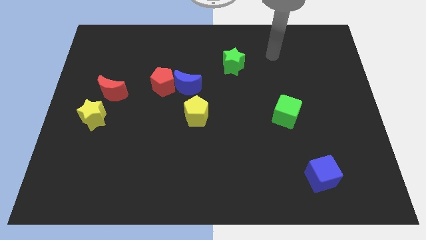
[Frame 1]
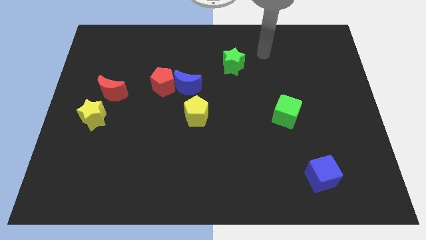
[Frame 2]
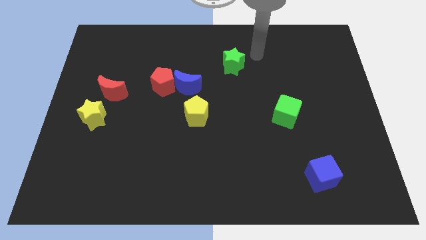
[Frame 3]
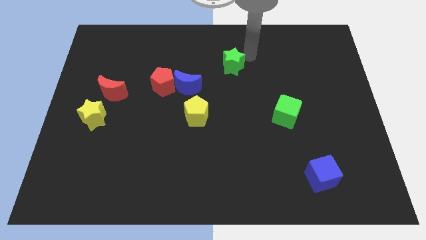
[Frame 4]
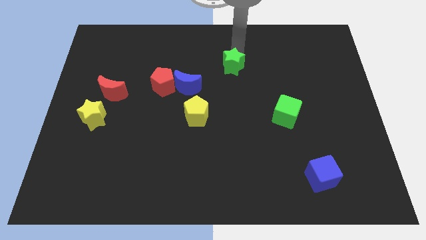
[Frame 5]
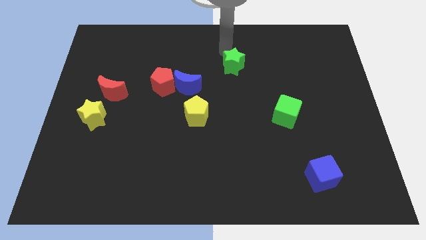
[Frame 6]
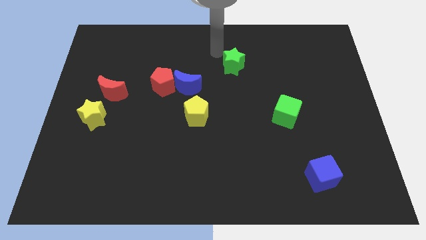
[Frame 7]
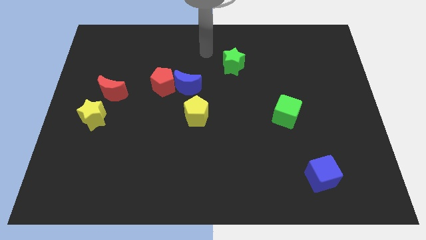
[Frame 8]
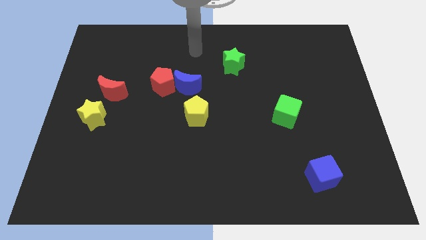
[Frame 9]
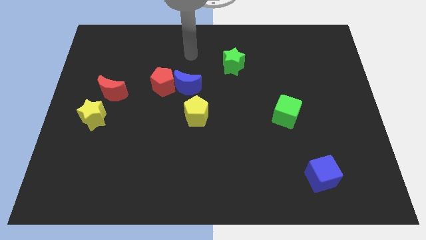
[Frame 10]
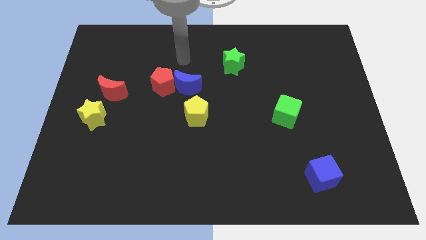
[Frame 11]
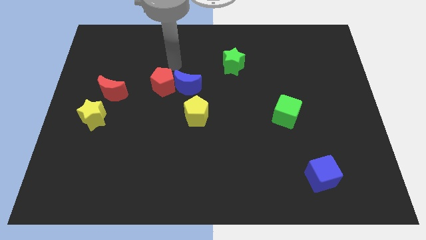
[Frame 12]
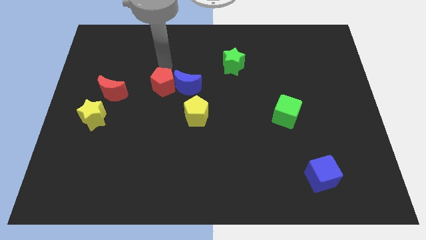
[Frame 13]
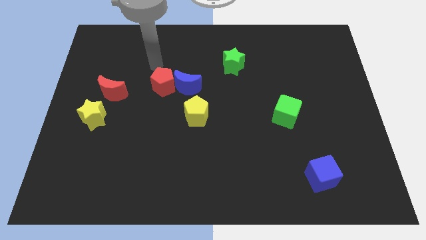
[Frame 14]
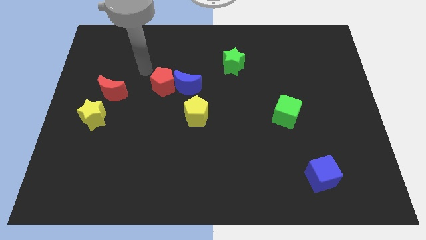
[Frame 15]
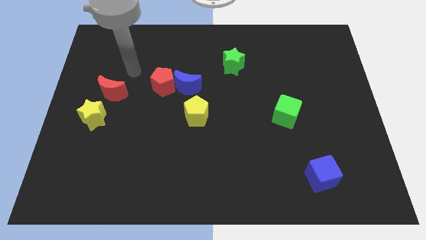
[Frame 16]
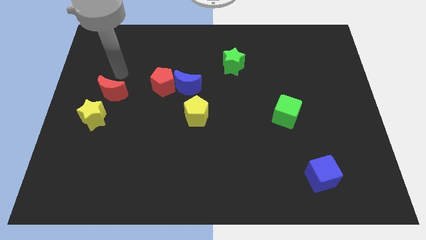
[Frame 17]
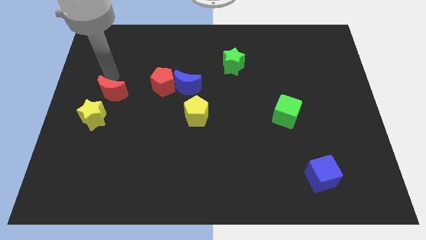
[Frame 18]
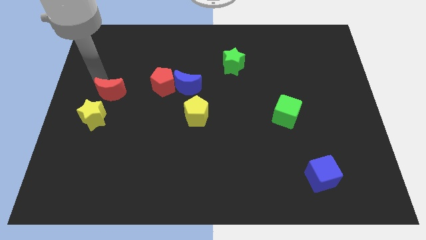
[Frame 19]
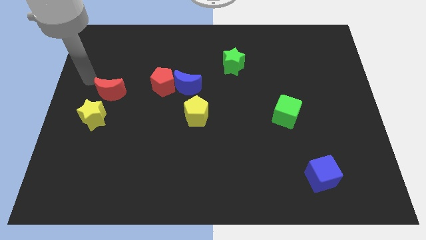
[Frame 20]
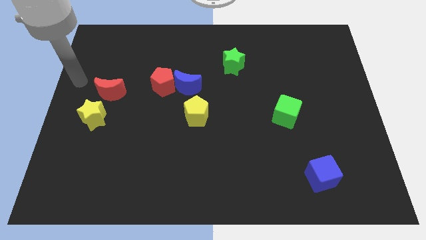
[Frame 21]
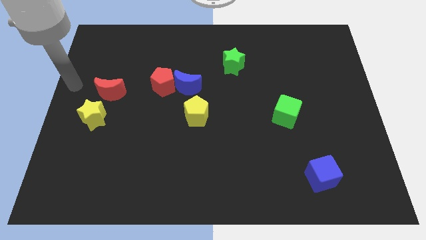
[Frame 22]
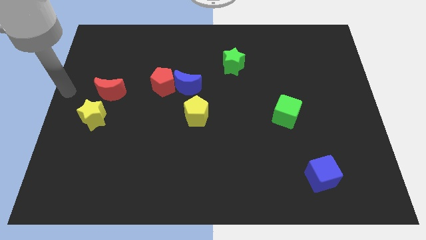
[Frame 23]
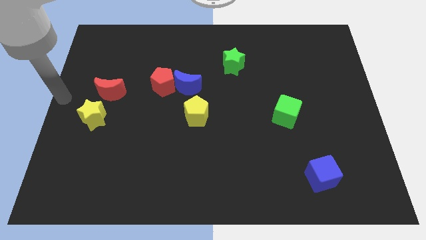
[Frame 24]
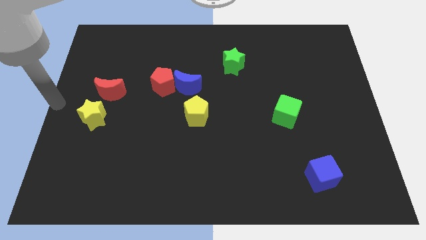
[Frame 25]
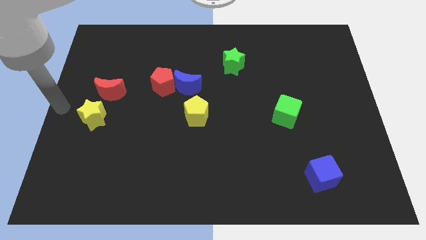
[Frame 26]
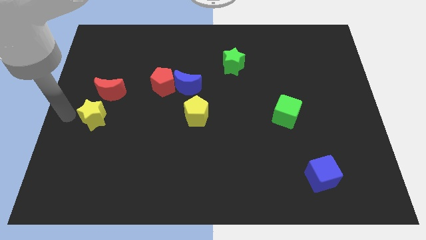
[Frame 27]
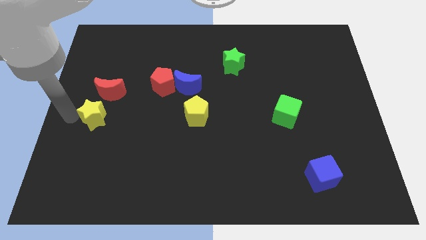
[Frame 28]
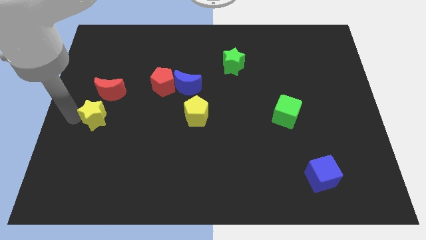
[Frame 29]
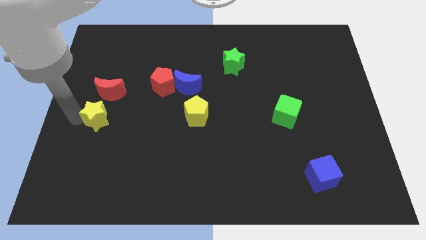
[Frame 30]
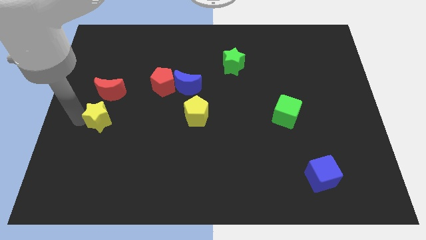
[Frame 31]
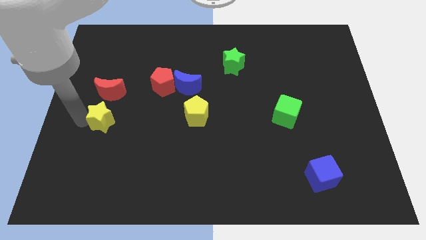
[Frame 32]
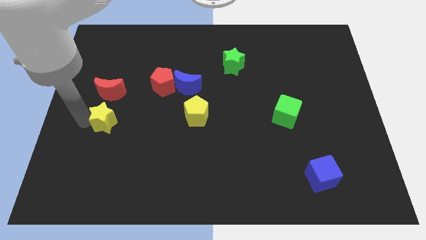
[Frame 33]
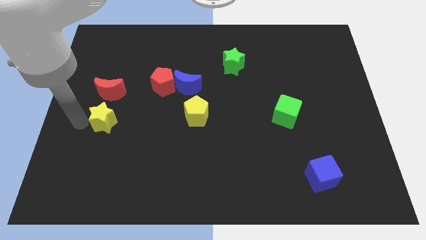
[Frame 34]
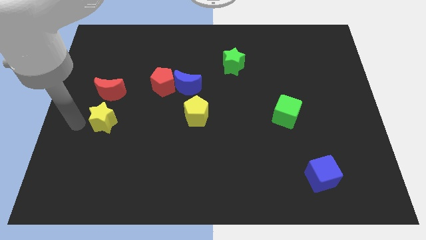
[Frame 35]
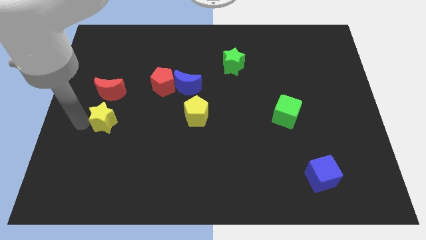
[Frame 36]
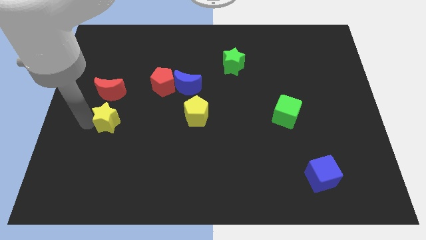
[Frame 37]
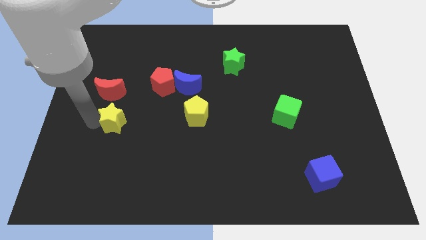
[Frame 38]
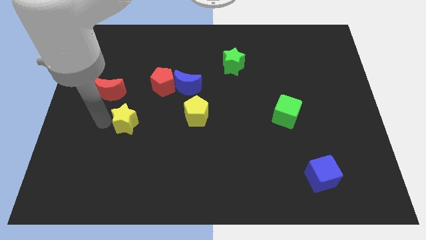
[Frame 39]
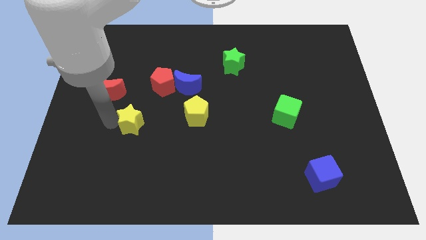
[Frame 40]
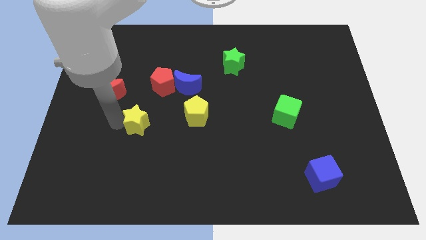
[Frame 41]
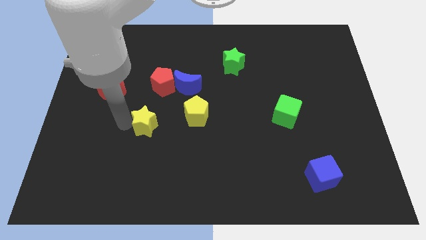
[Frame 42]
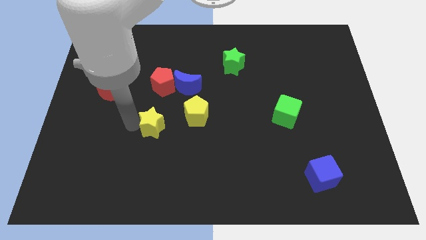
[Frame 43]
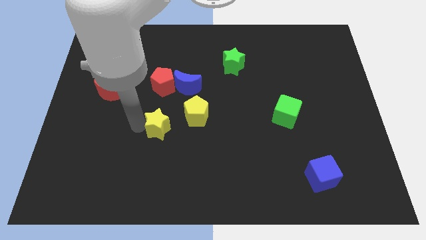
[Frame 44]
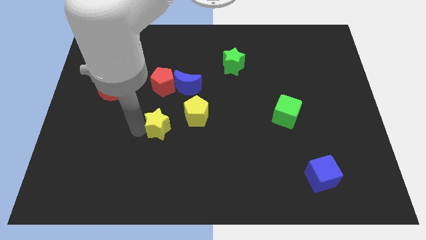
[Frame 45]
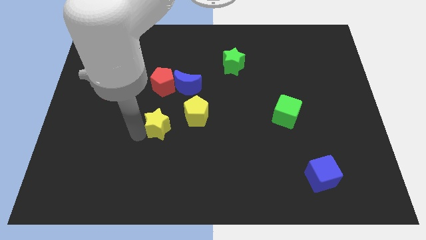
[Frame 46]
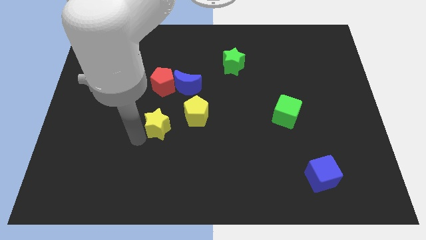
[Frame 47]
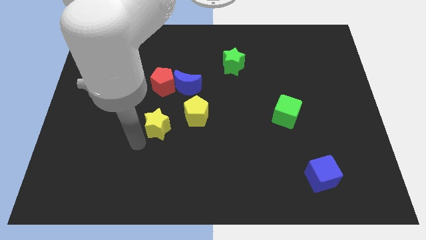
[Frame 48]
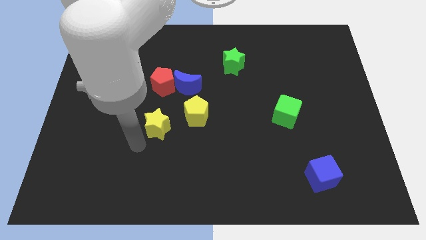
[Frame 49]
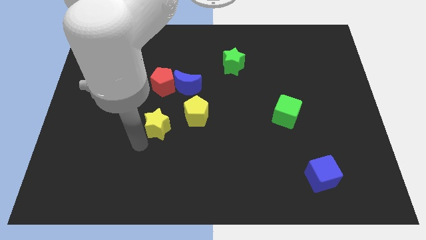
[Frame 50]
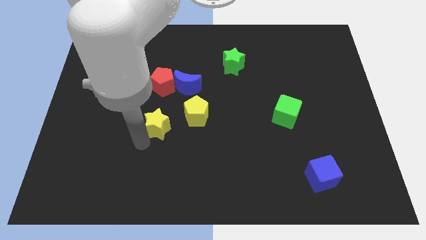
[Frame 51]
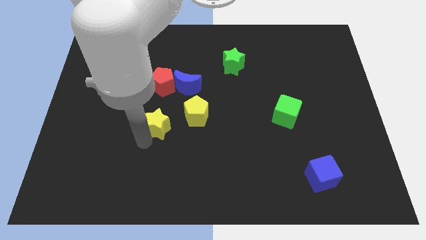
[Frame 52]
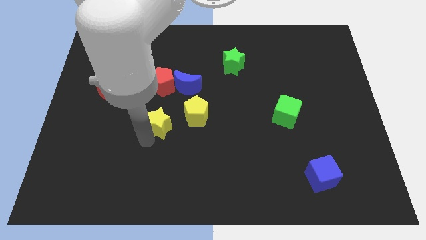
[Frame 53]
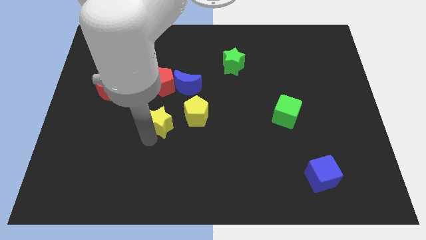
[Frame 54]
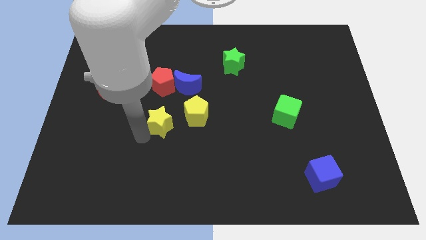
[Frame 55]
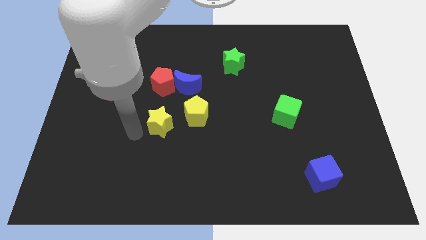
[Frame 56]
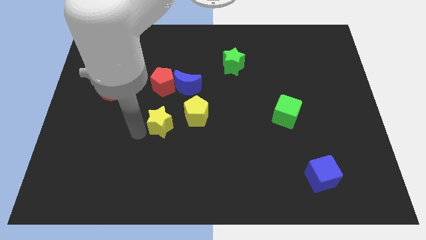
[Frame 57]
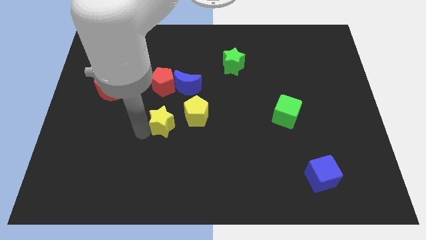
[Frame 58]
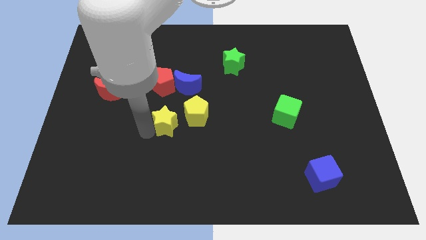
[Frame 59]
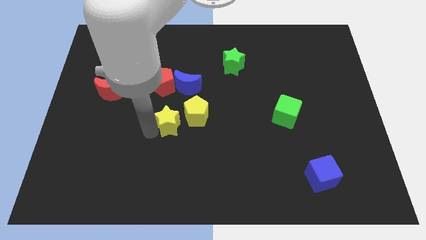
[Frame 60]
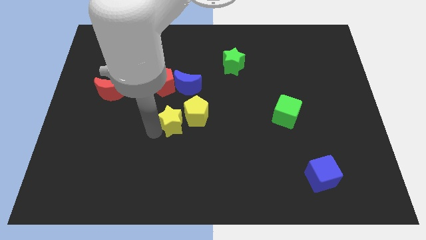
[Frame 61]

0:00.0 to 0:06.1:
push the yellow star to the yellow pentagon

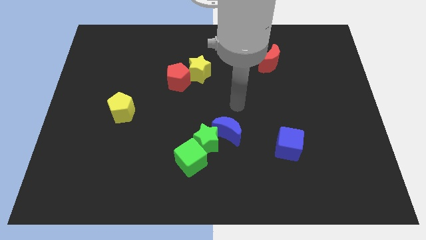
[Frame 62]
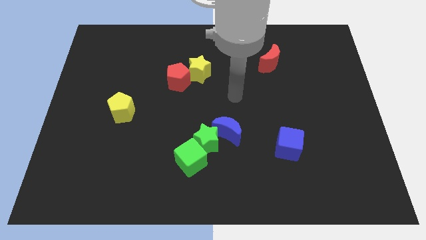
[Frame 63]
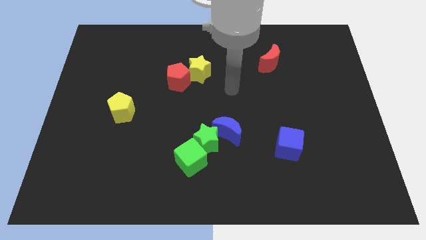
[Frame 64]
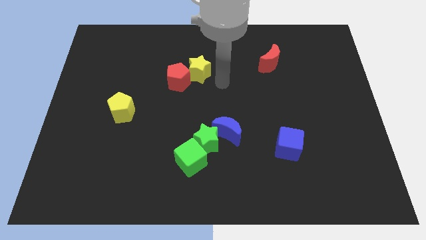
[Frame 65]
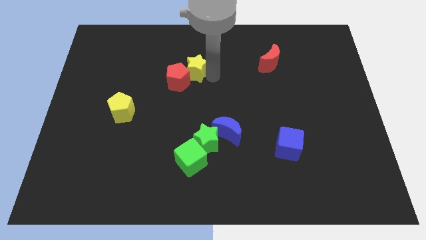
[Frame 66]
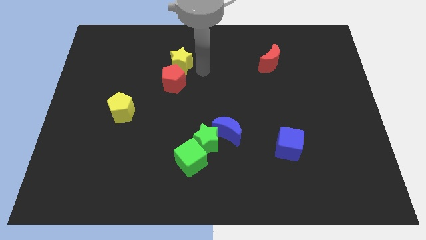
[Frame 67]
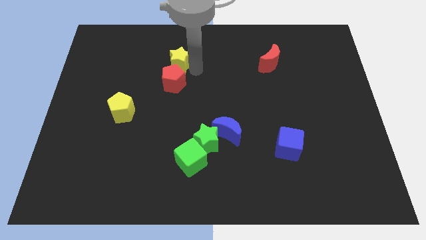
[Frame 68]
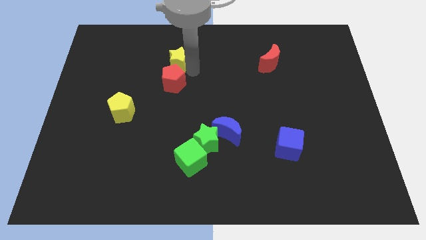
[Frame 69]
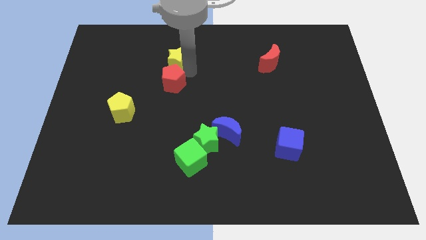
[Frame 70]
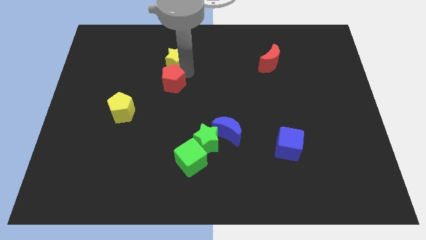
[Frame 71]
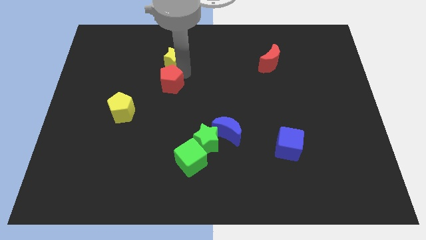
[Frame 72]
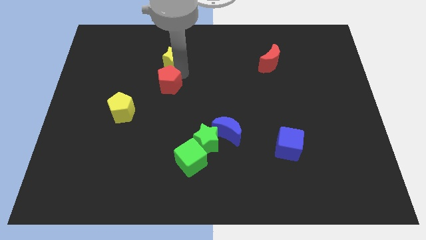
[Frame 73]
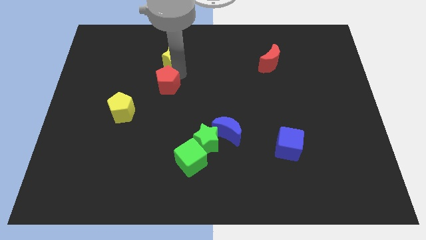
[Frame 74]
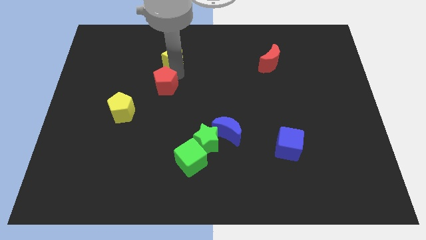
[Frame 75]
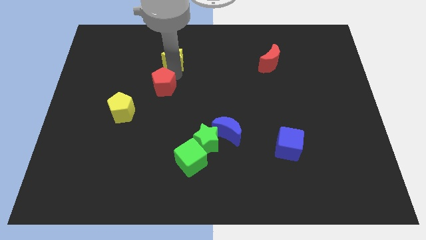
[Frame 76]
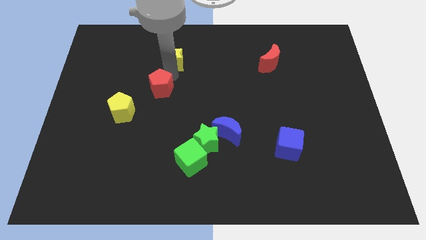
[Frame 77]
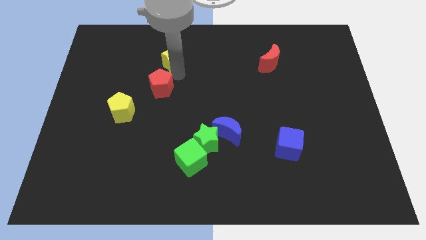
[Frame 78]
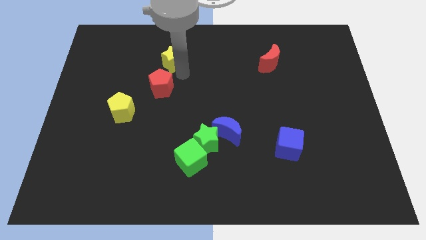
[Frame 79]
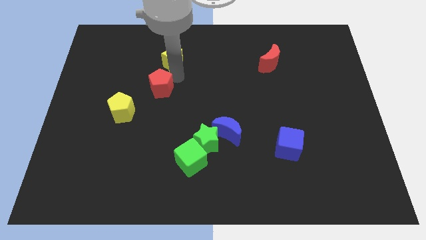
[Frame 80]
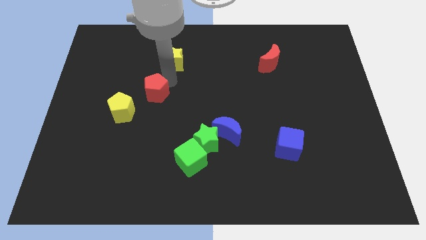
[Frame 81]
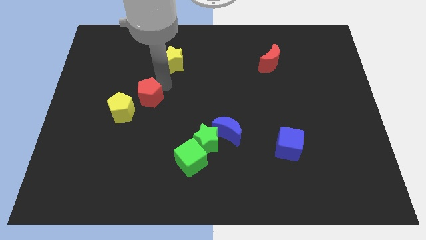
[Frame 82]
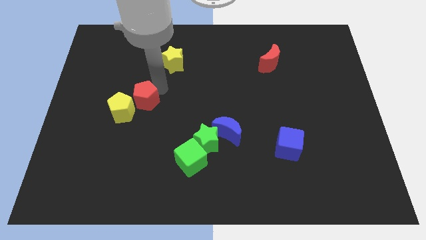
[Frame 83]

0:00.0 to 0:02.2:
move the red pentagon close to the yellow pentagon
